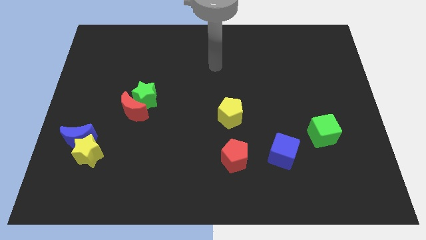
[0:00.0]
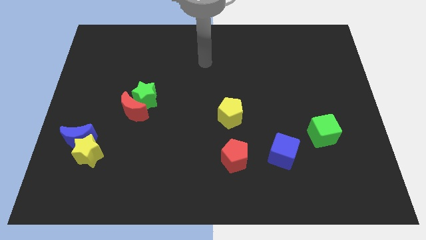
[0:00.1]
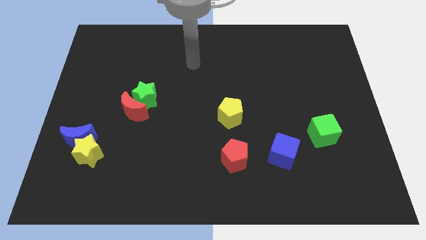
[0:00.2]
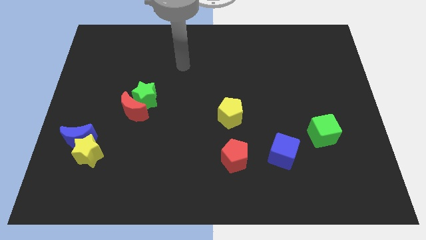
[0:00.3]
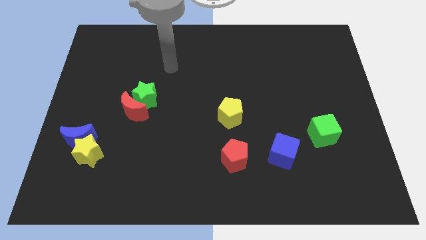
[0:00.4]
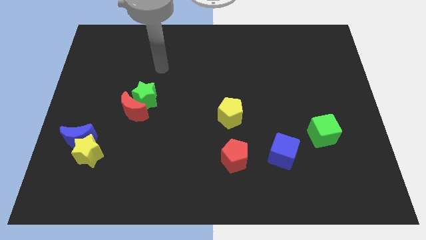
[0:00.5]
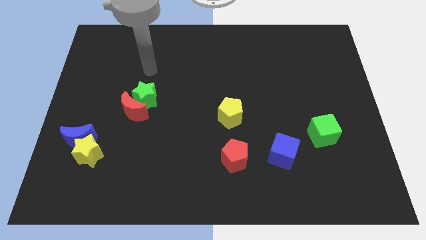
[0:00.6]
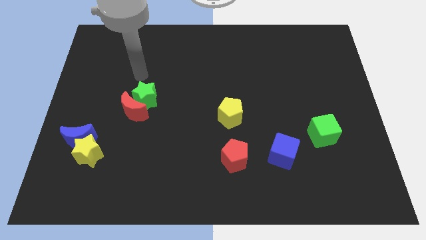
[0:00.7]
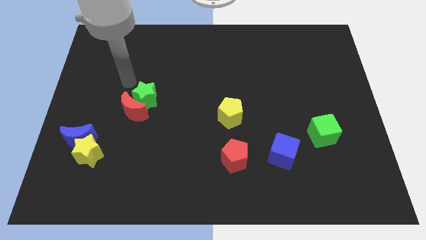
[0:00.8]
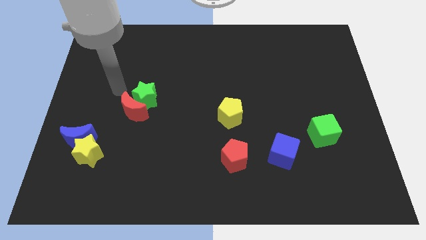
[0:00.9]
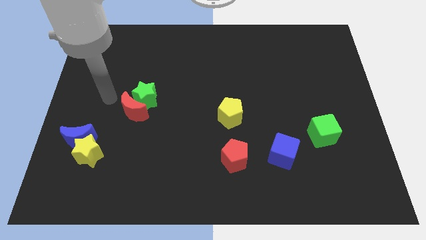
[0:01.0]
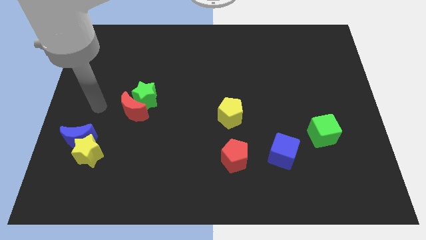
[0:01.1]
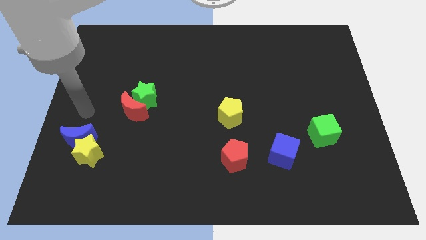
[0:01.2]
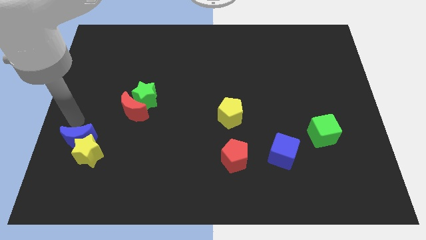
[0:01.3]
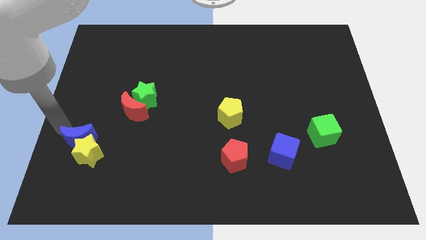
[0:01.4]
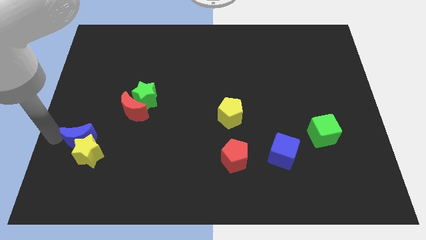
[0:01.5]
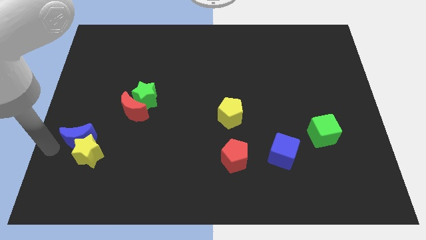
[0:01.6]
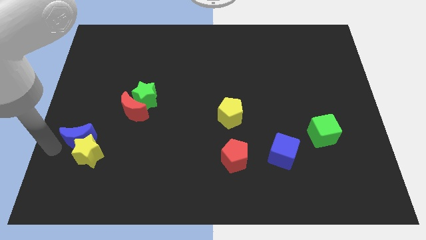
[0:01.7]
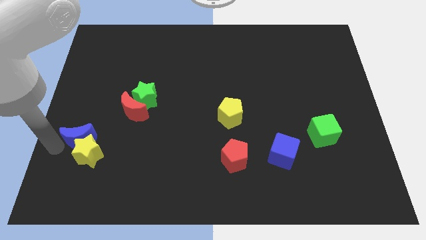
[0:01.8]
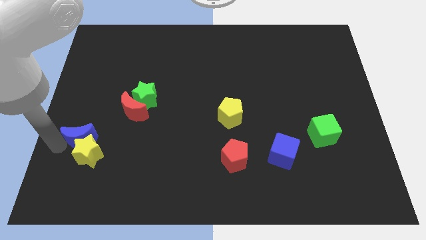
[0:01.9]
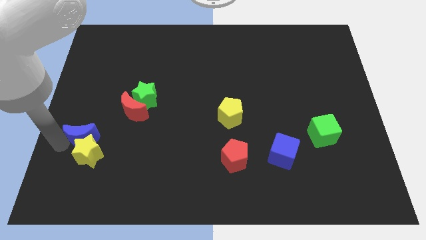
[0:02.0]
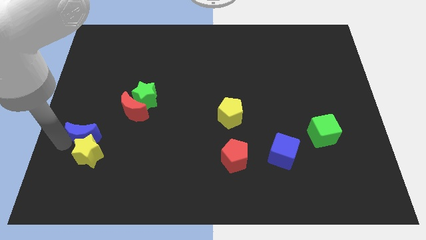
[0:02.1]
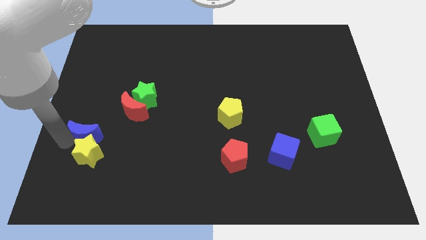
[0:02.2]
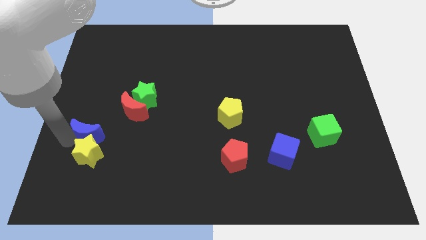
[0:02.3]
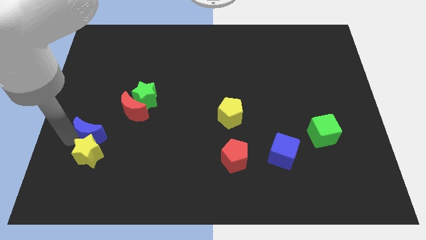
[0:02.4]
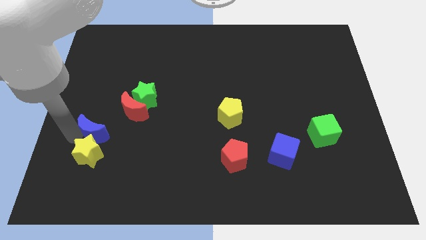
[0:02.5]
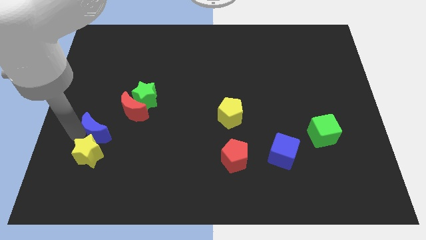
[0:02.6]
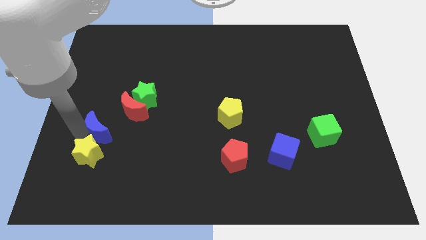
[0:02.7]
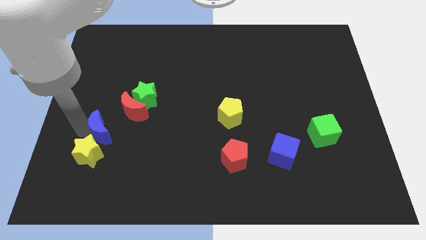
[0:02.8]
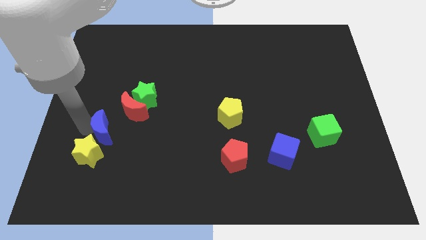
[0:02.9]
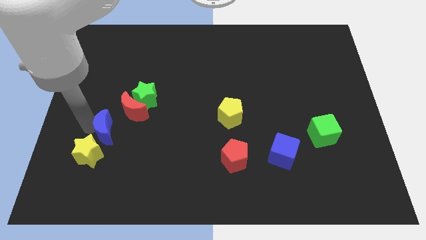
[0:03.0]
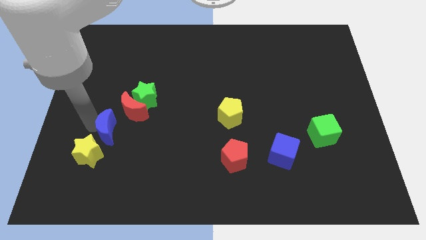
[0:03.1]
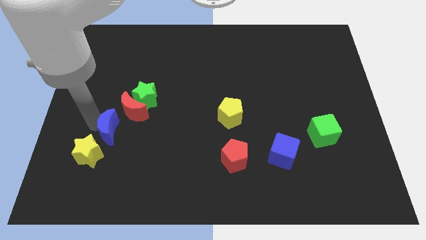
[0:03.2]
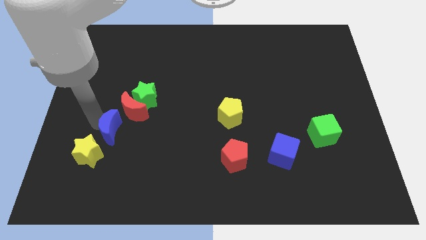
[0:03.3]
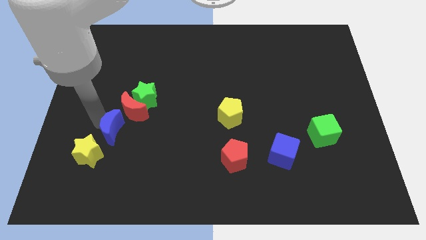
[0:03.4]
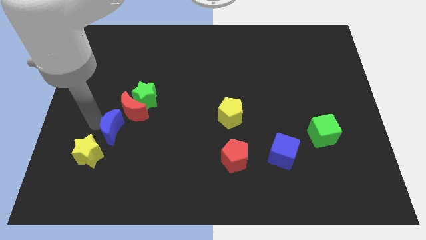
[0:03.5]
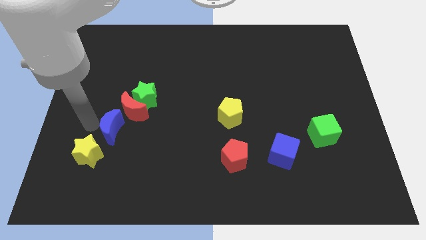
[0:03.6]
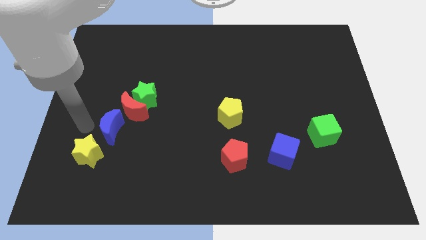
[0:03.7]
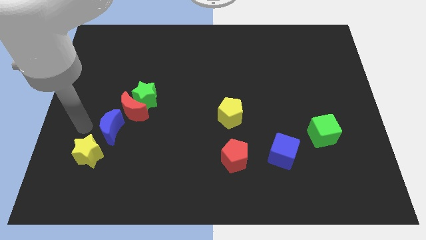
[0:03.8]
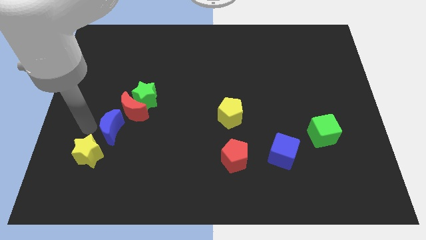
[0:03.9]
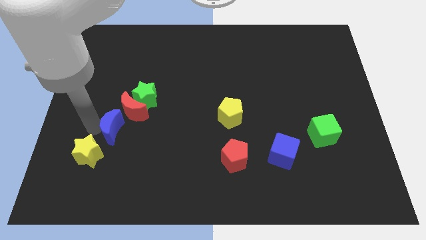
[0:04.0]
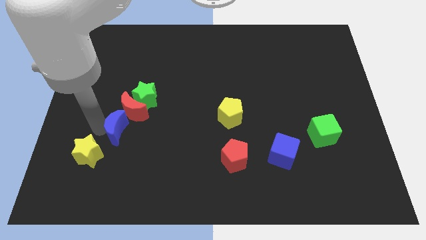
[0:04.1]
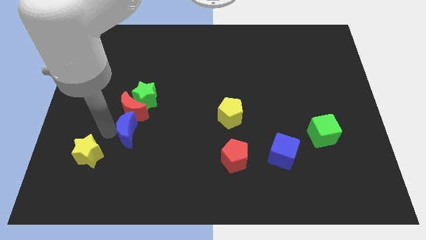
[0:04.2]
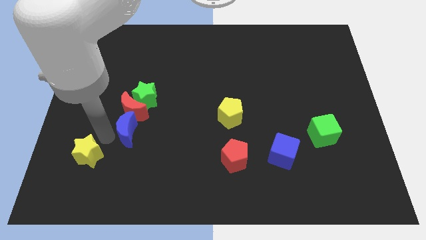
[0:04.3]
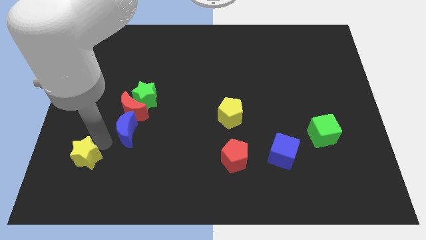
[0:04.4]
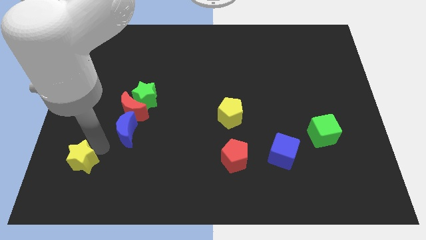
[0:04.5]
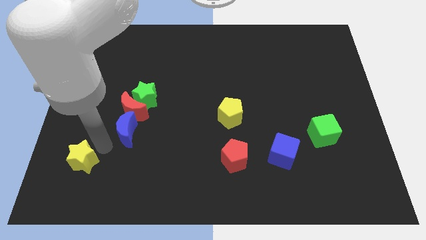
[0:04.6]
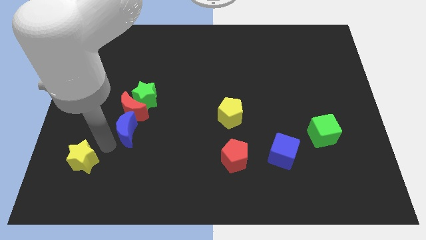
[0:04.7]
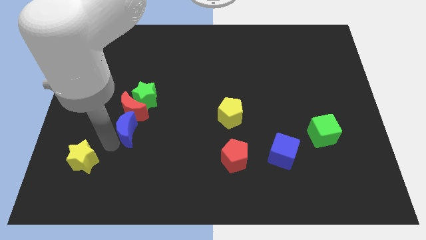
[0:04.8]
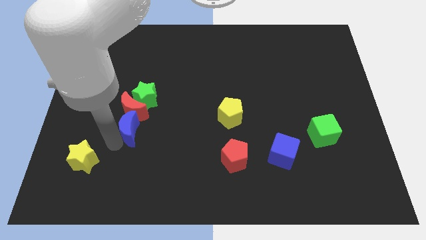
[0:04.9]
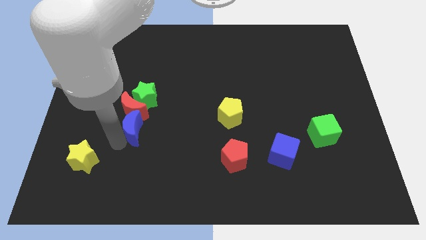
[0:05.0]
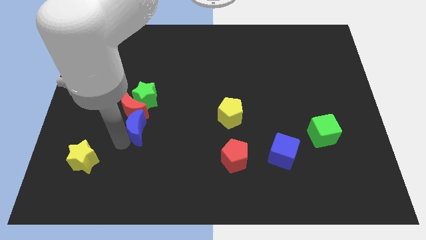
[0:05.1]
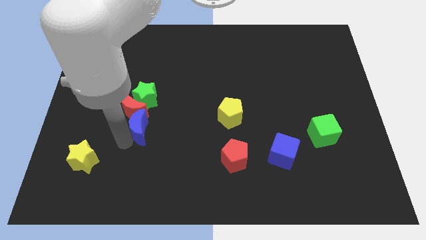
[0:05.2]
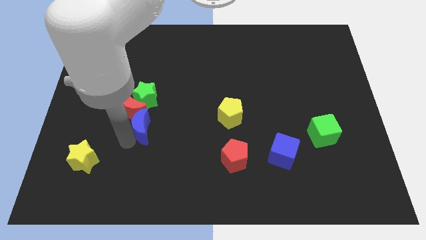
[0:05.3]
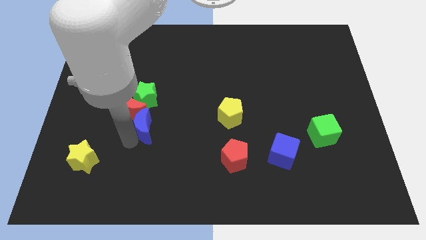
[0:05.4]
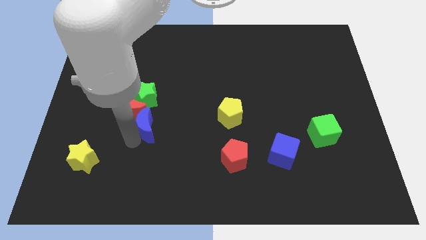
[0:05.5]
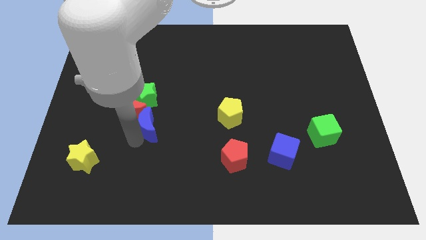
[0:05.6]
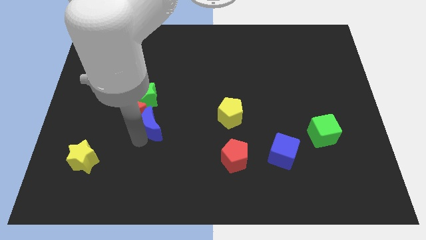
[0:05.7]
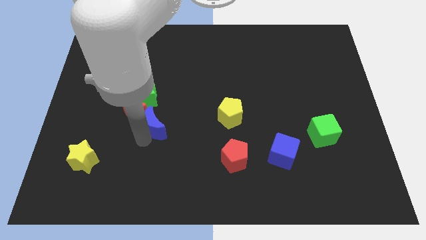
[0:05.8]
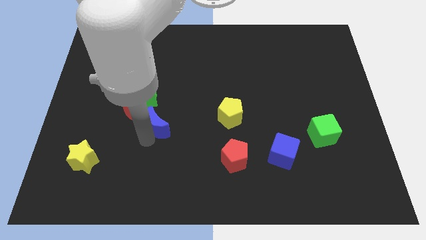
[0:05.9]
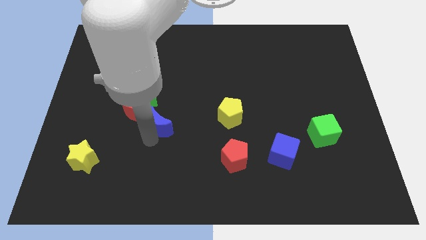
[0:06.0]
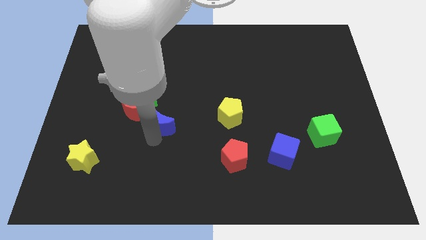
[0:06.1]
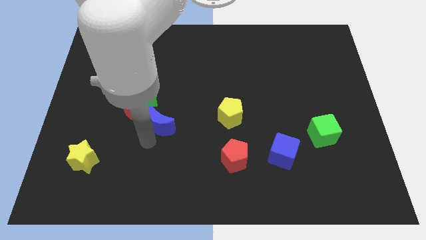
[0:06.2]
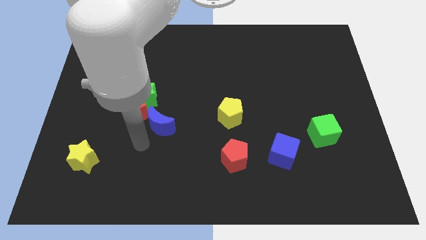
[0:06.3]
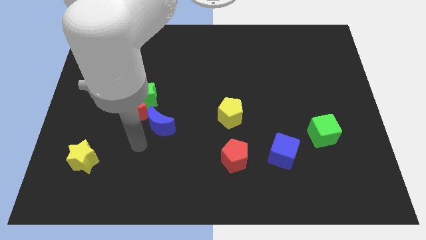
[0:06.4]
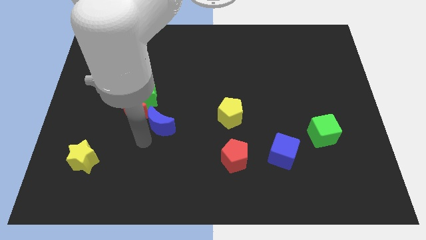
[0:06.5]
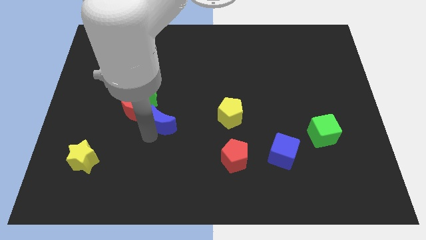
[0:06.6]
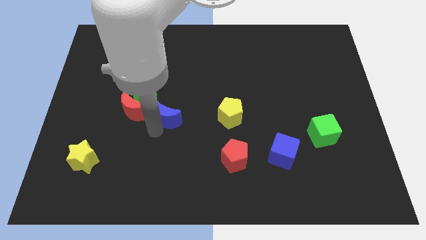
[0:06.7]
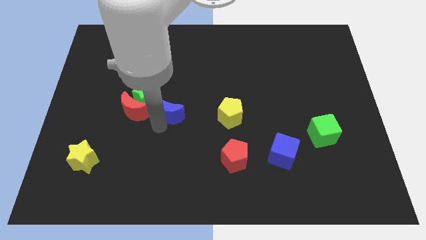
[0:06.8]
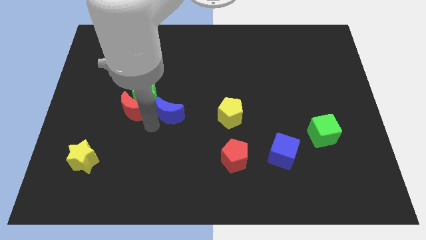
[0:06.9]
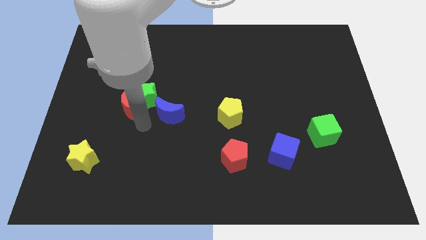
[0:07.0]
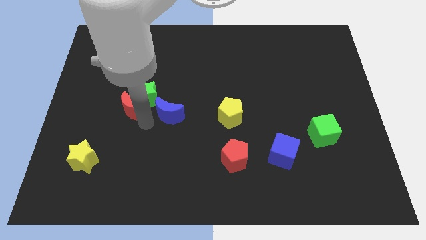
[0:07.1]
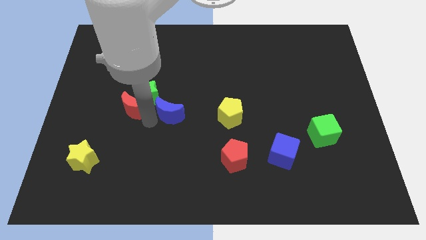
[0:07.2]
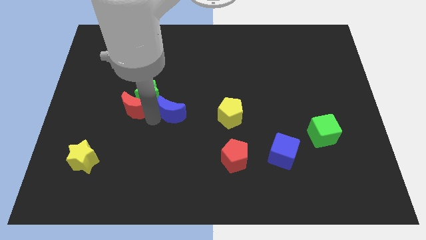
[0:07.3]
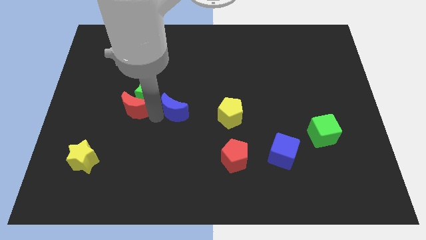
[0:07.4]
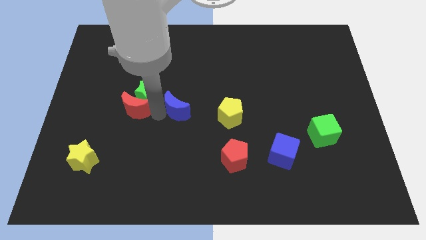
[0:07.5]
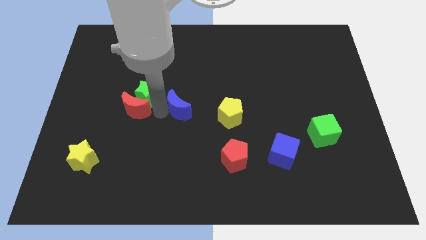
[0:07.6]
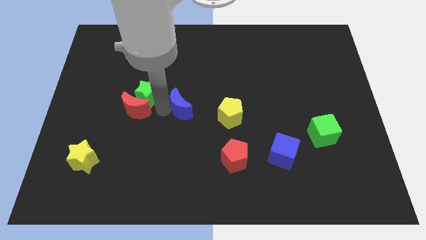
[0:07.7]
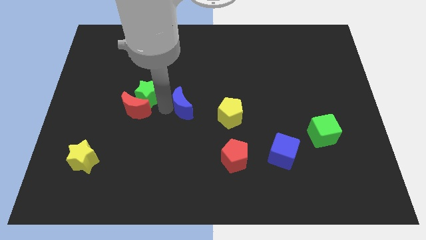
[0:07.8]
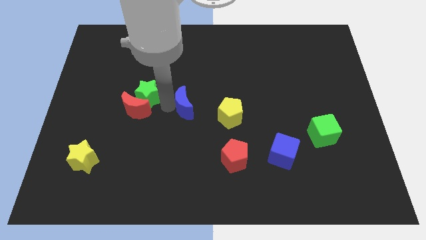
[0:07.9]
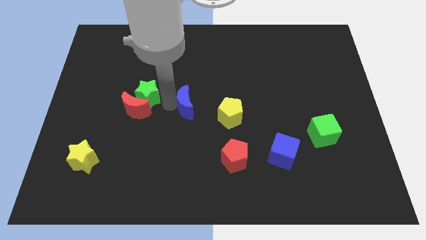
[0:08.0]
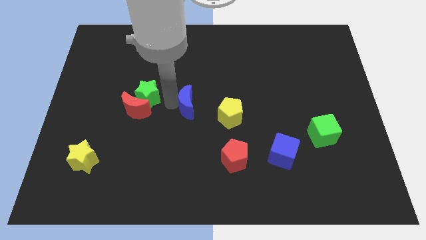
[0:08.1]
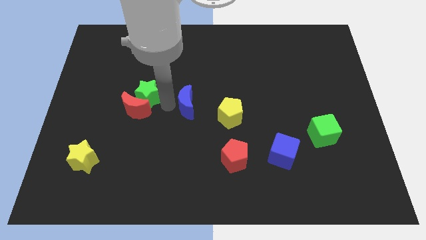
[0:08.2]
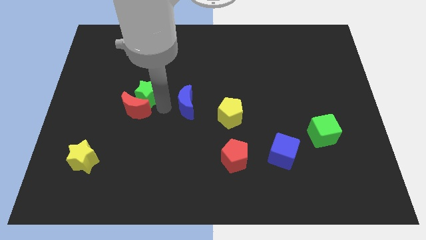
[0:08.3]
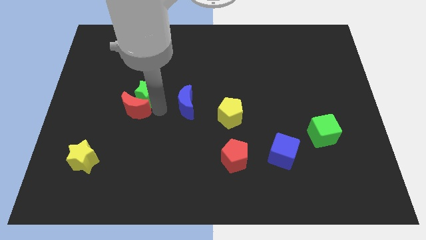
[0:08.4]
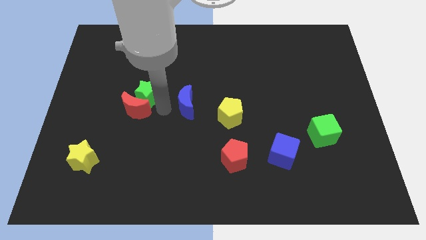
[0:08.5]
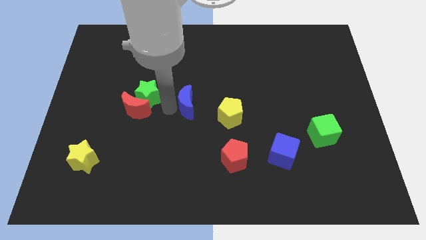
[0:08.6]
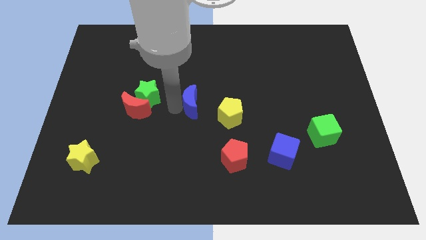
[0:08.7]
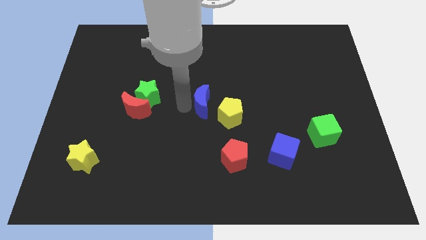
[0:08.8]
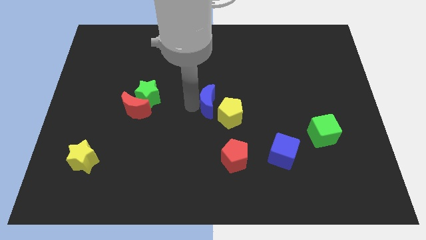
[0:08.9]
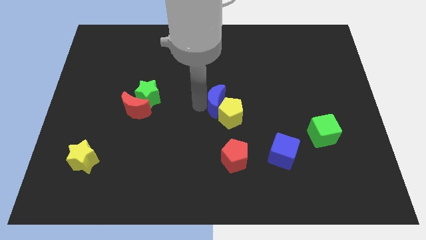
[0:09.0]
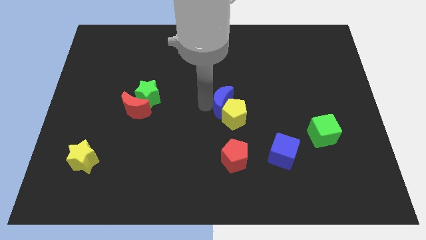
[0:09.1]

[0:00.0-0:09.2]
put the blue moon to the top of the red pentagon
